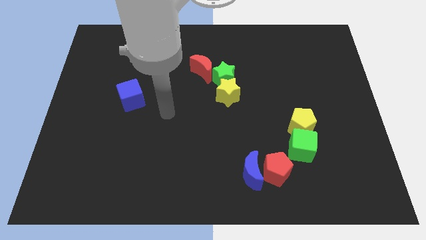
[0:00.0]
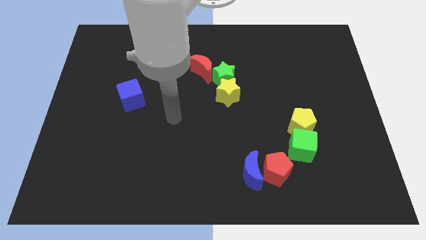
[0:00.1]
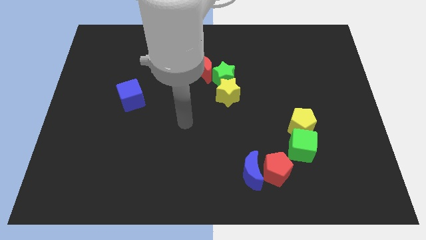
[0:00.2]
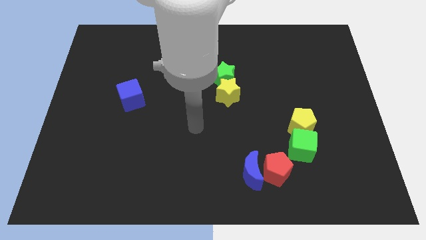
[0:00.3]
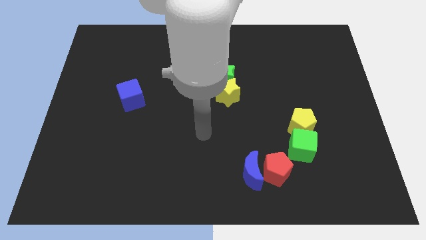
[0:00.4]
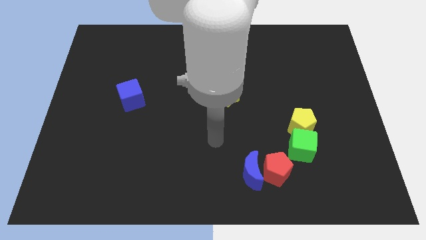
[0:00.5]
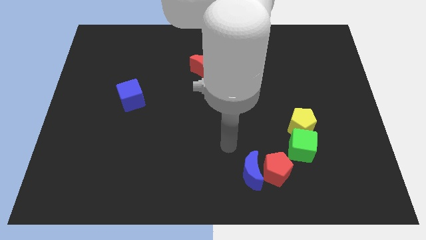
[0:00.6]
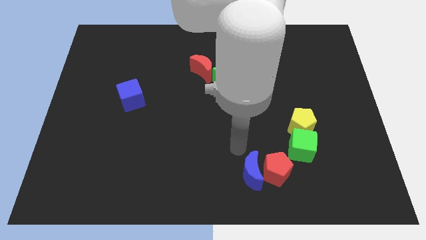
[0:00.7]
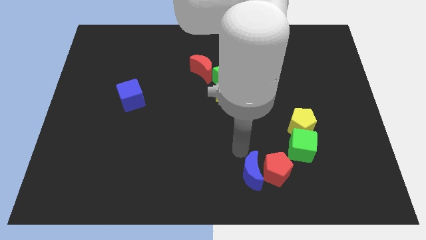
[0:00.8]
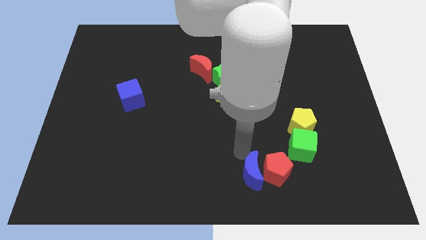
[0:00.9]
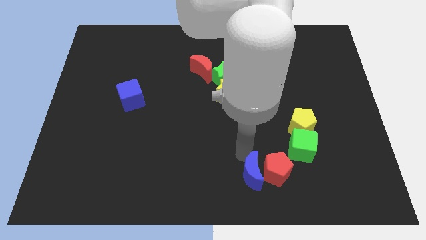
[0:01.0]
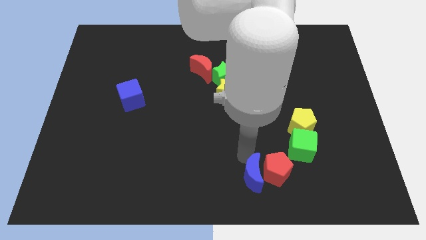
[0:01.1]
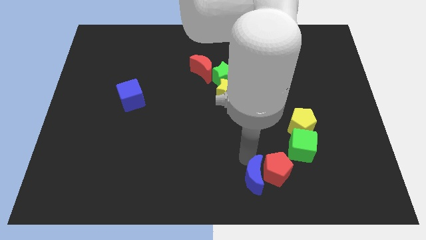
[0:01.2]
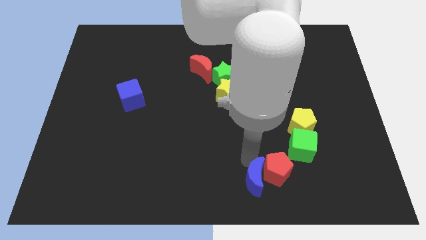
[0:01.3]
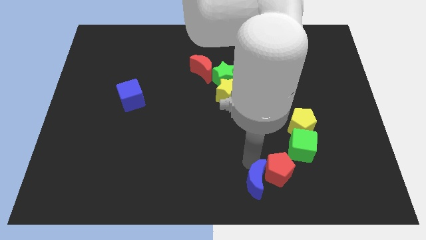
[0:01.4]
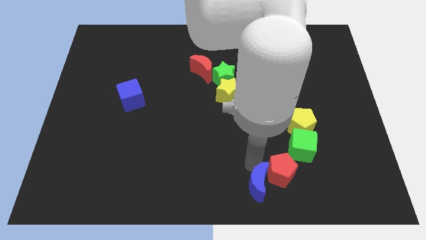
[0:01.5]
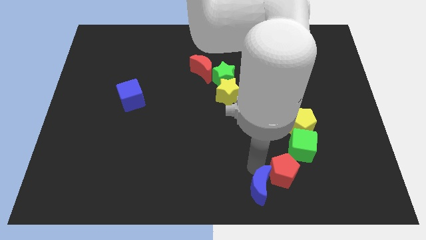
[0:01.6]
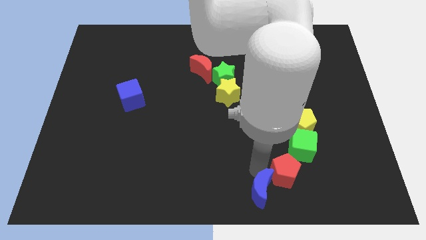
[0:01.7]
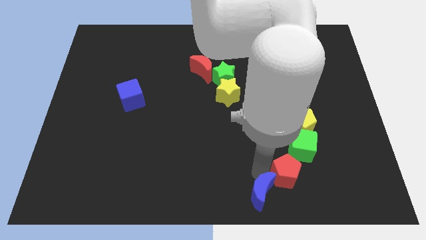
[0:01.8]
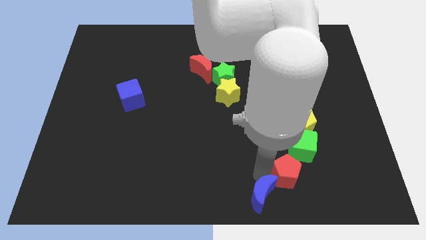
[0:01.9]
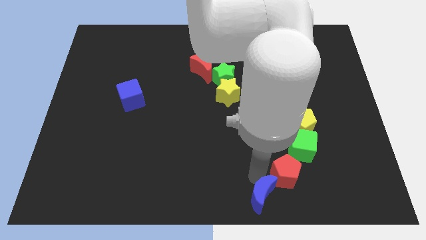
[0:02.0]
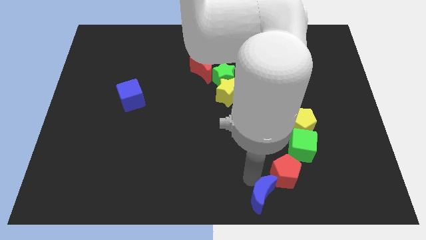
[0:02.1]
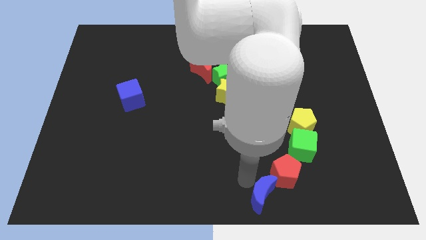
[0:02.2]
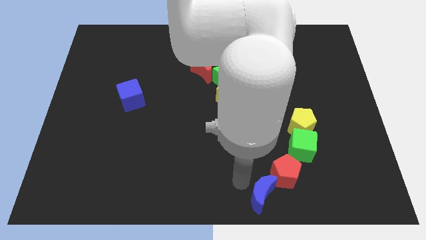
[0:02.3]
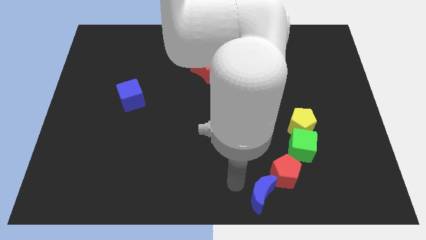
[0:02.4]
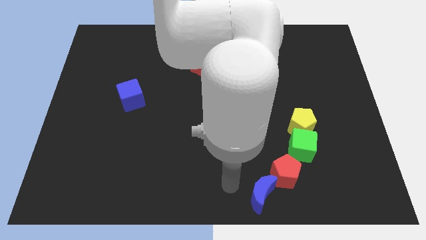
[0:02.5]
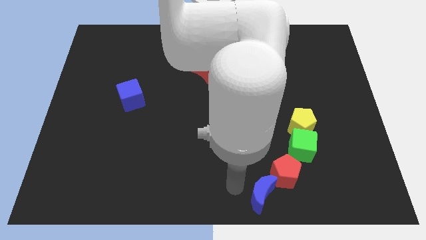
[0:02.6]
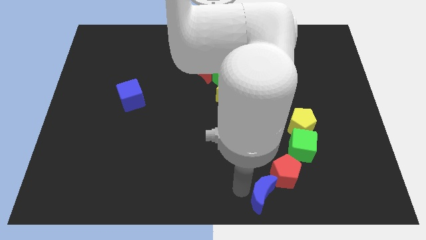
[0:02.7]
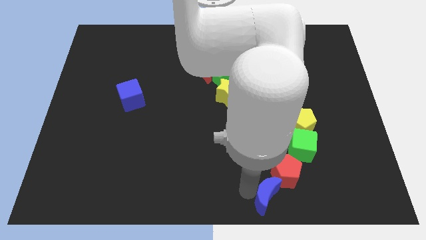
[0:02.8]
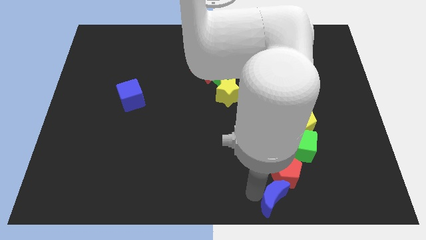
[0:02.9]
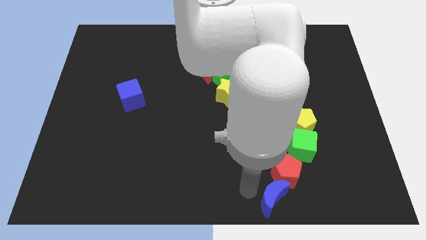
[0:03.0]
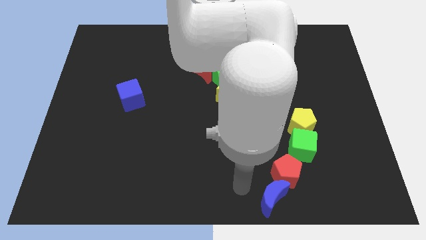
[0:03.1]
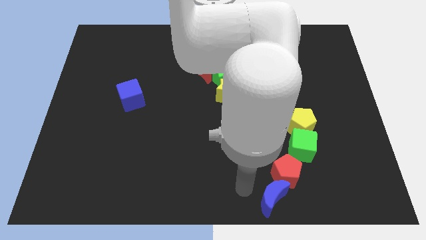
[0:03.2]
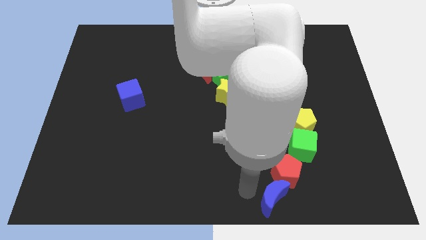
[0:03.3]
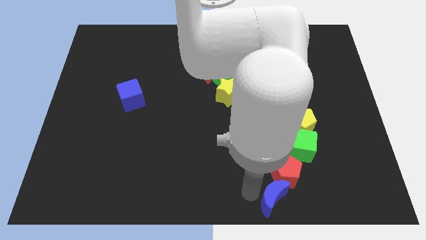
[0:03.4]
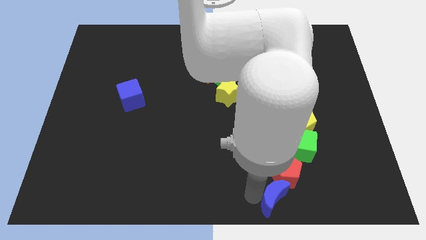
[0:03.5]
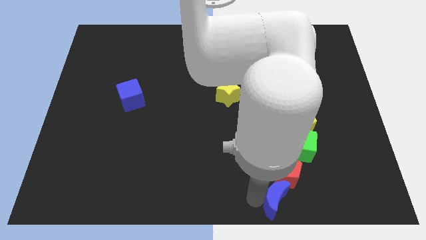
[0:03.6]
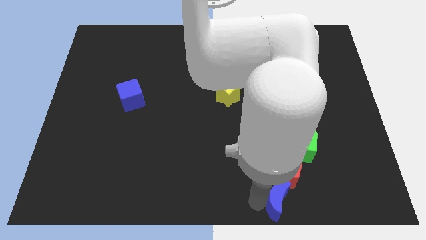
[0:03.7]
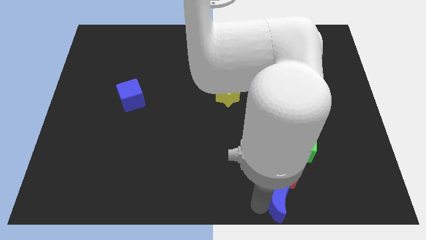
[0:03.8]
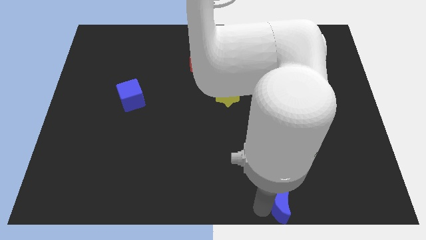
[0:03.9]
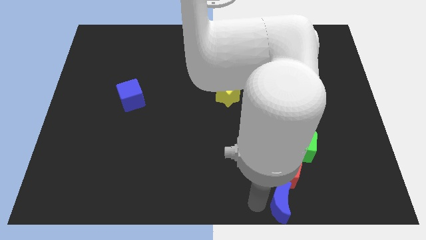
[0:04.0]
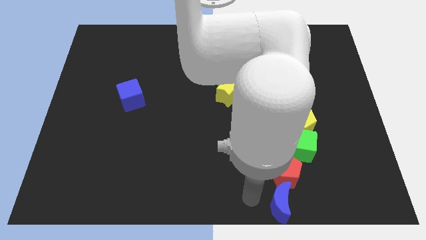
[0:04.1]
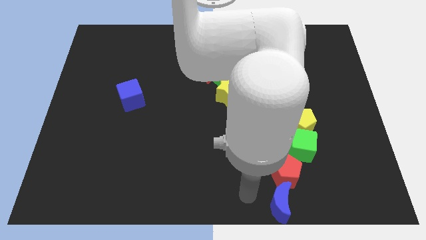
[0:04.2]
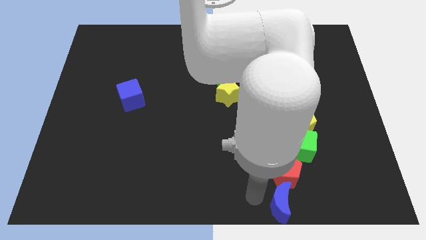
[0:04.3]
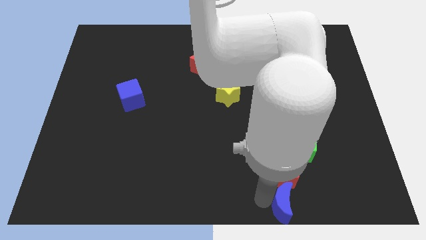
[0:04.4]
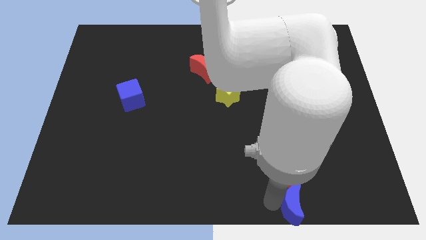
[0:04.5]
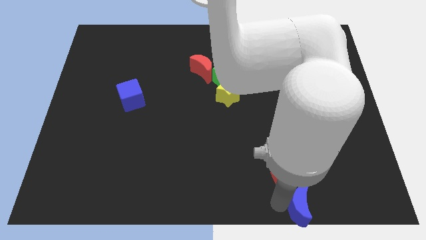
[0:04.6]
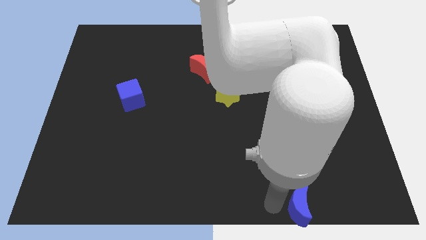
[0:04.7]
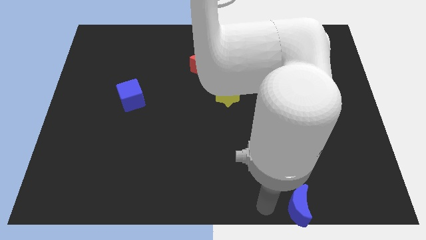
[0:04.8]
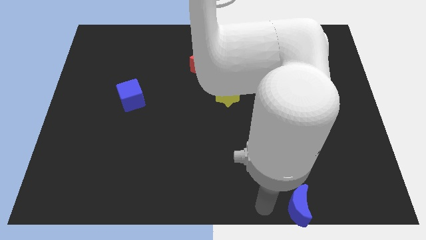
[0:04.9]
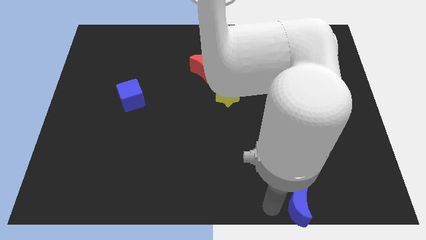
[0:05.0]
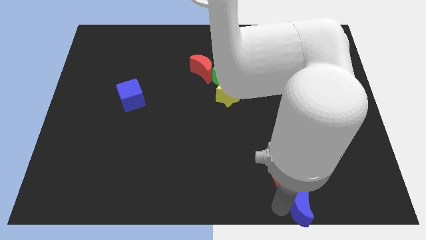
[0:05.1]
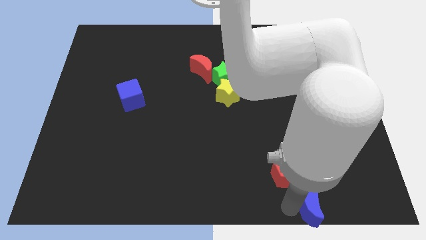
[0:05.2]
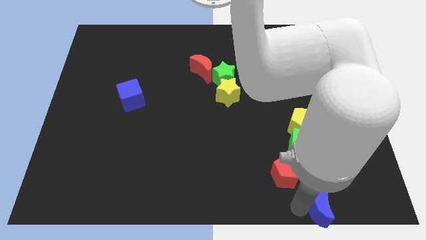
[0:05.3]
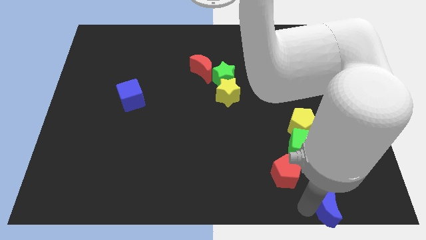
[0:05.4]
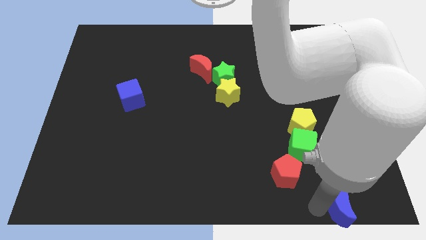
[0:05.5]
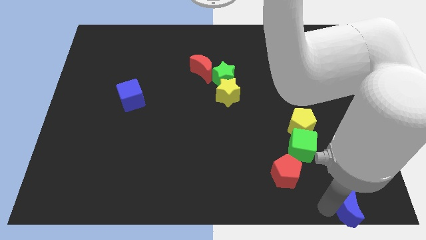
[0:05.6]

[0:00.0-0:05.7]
push the blue moon to the bottom right

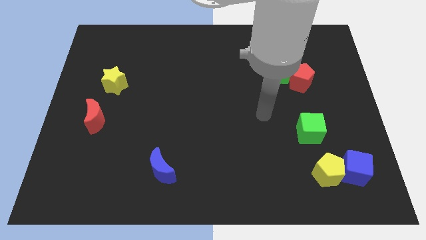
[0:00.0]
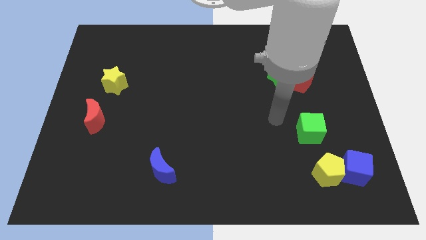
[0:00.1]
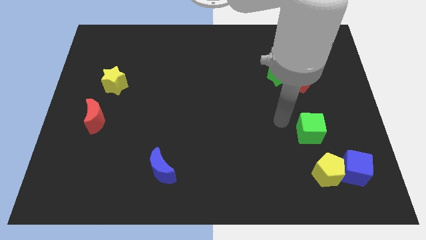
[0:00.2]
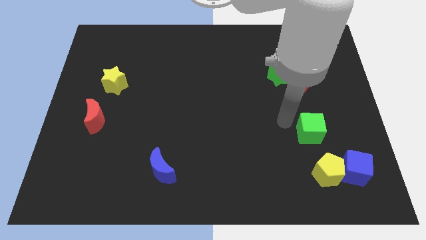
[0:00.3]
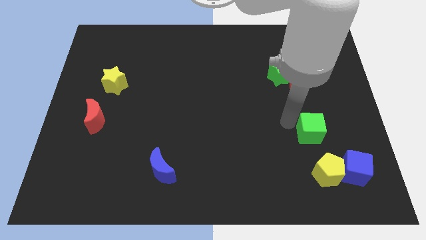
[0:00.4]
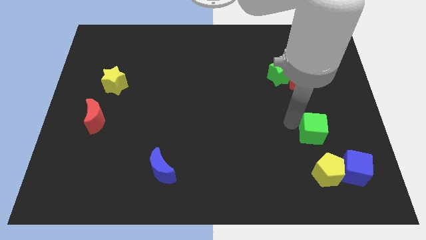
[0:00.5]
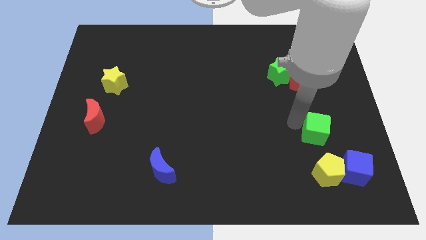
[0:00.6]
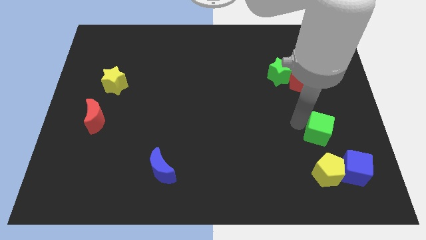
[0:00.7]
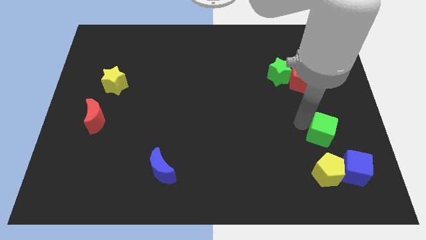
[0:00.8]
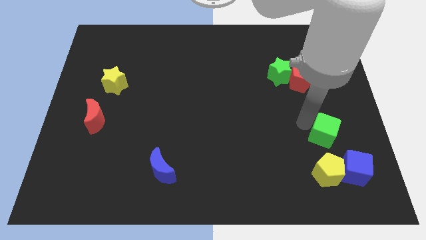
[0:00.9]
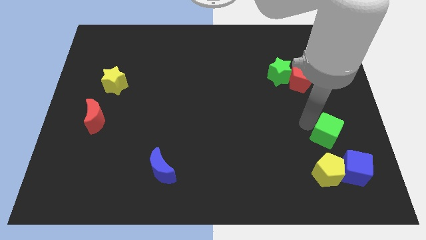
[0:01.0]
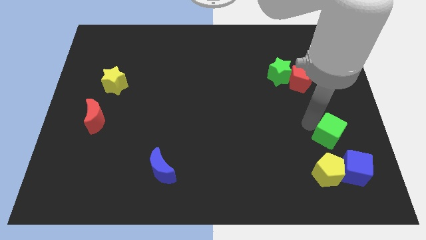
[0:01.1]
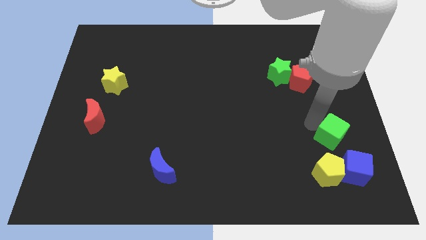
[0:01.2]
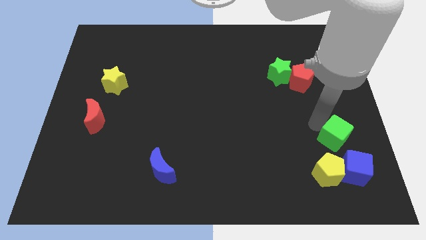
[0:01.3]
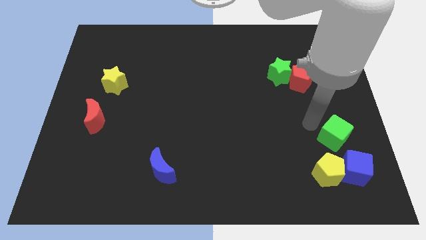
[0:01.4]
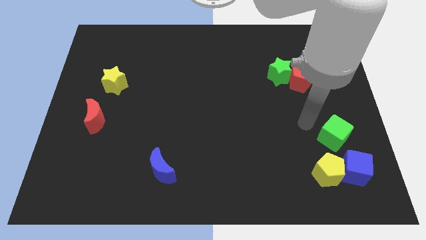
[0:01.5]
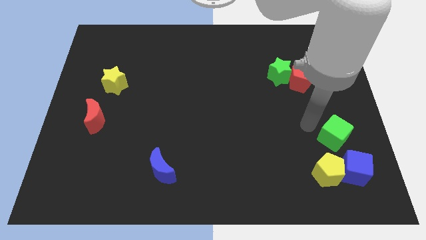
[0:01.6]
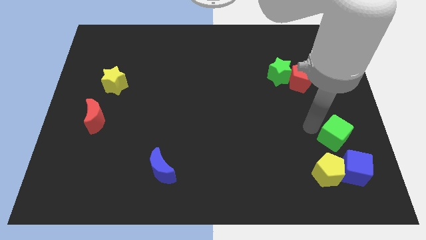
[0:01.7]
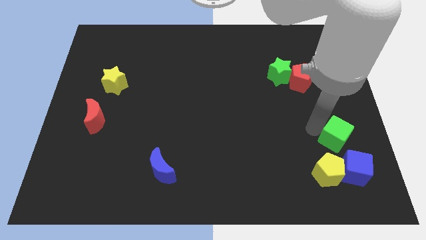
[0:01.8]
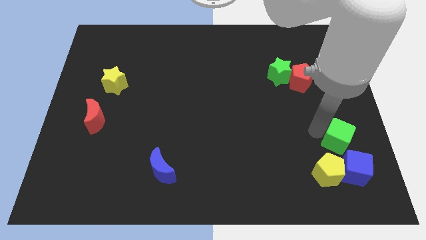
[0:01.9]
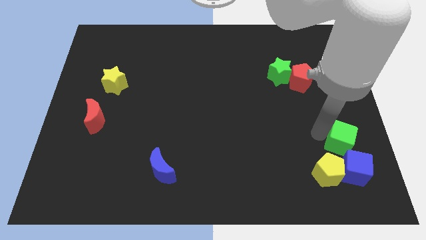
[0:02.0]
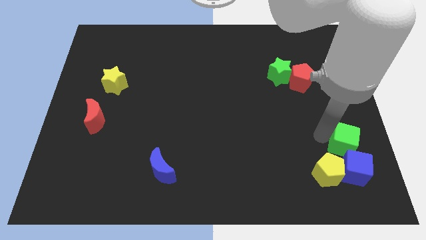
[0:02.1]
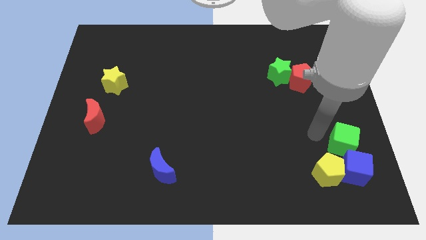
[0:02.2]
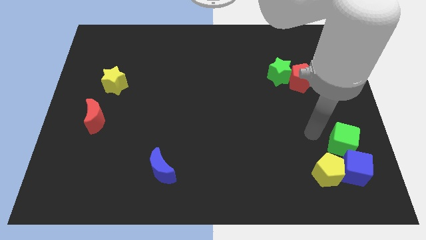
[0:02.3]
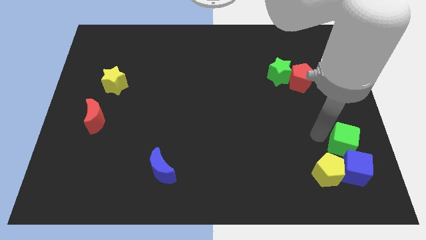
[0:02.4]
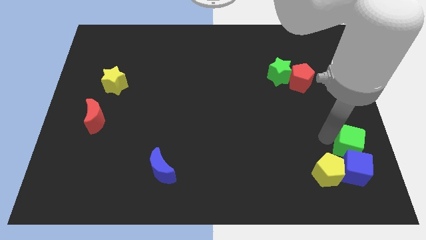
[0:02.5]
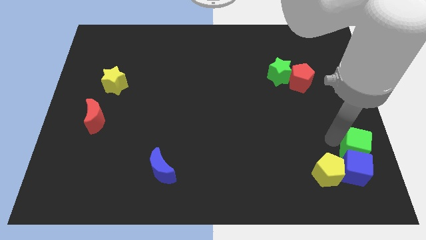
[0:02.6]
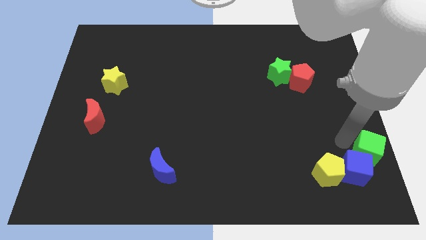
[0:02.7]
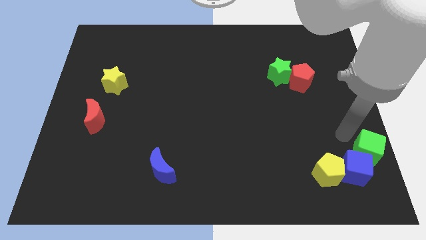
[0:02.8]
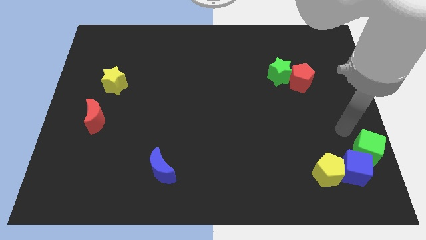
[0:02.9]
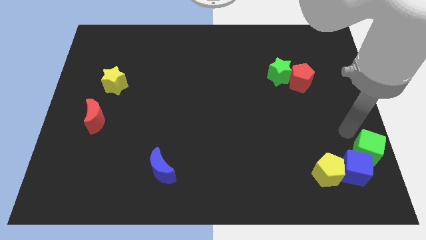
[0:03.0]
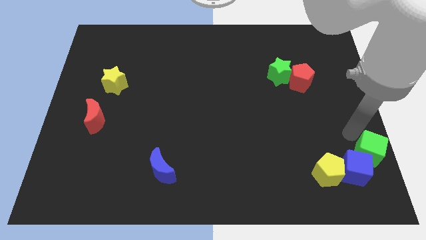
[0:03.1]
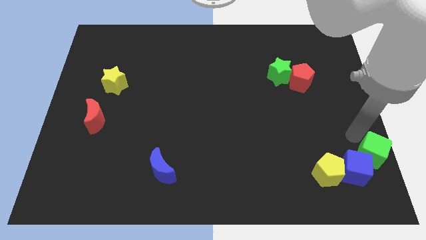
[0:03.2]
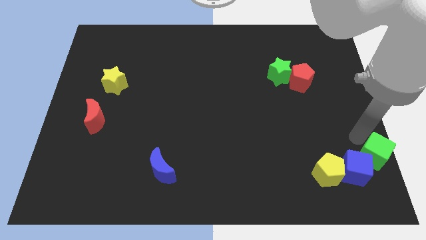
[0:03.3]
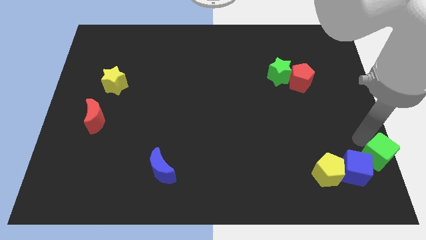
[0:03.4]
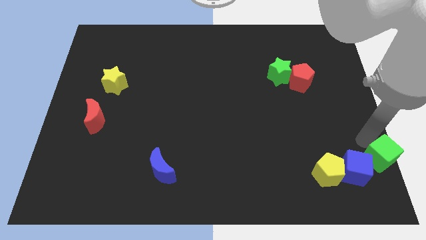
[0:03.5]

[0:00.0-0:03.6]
slide the green cube to the bottom right
